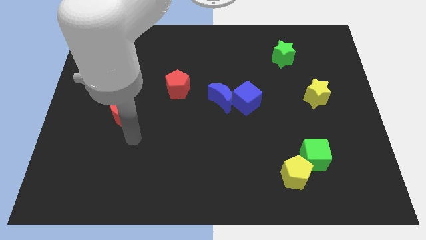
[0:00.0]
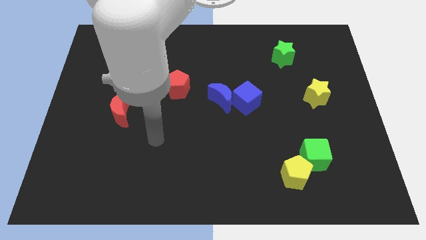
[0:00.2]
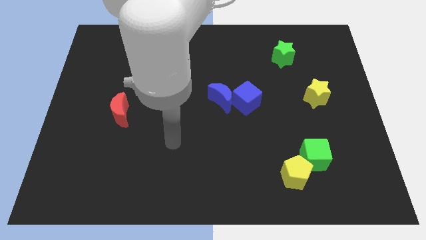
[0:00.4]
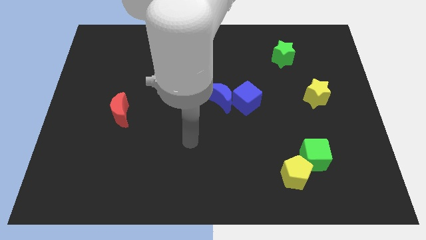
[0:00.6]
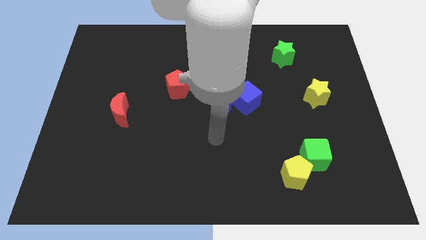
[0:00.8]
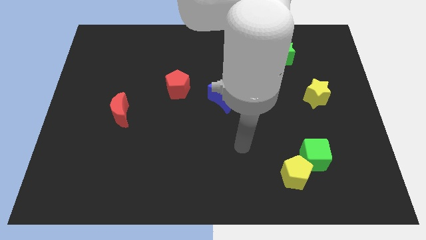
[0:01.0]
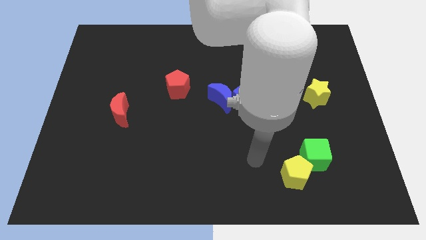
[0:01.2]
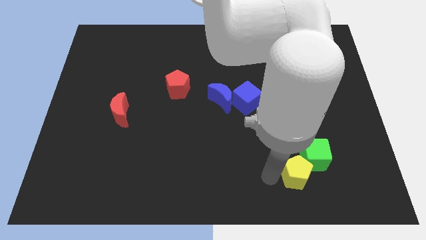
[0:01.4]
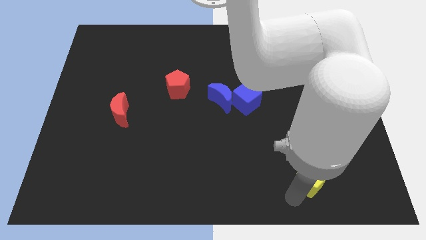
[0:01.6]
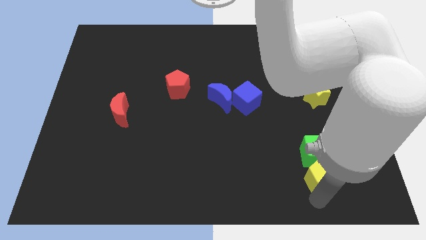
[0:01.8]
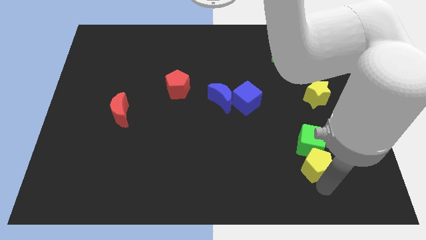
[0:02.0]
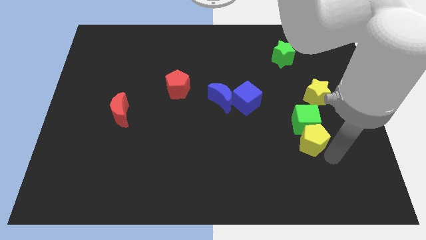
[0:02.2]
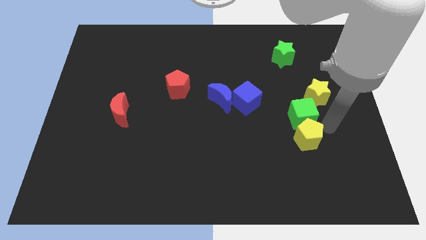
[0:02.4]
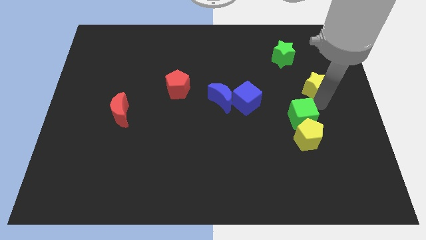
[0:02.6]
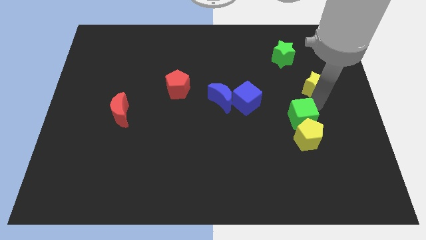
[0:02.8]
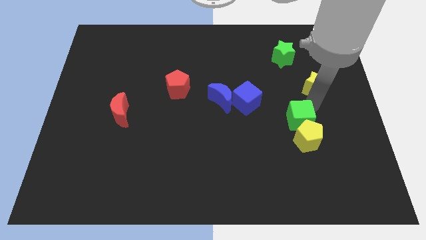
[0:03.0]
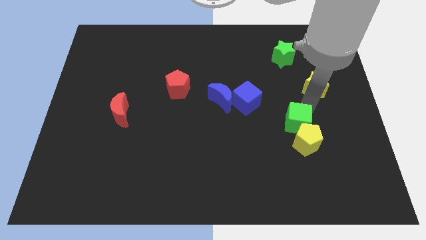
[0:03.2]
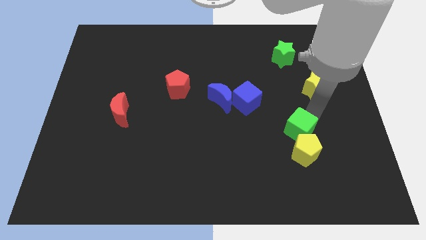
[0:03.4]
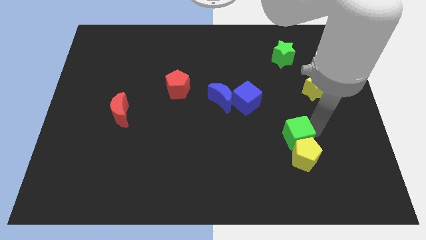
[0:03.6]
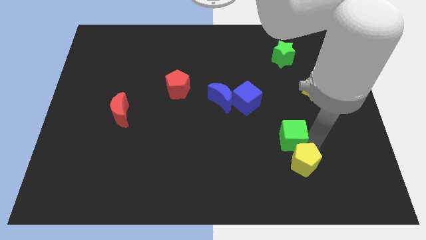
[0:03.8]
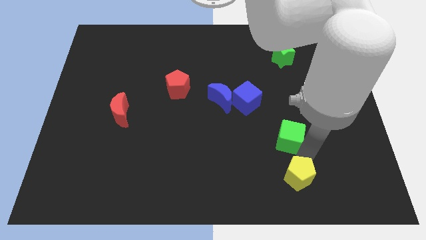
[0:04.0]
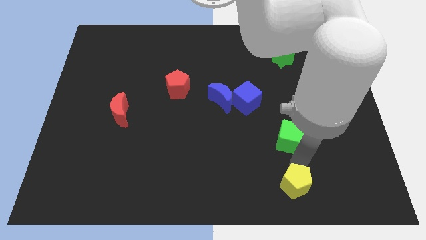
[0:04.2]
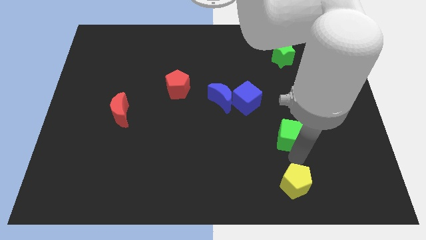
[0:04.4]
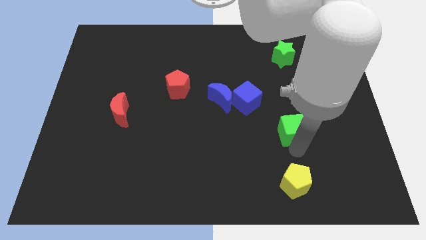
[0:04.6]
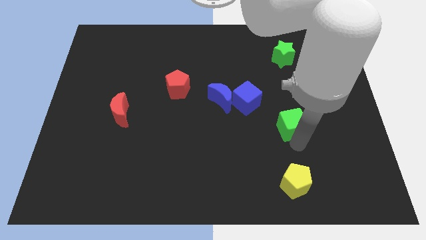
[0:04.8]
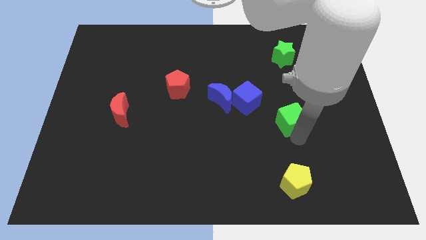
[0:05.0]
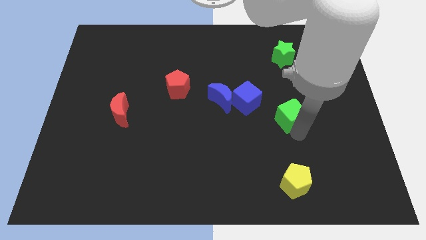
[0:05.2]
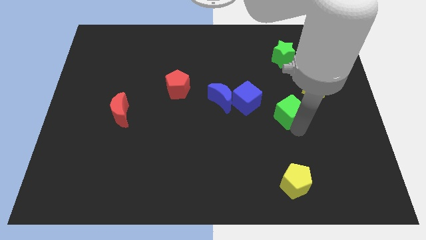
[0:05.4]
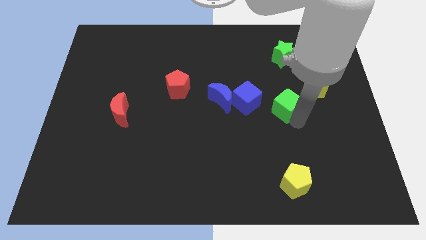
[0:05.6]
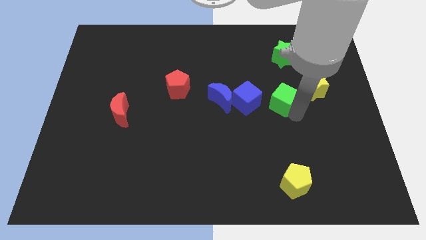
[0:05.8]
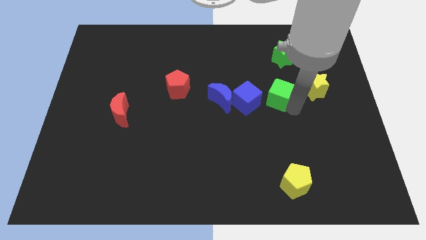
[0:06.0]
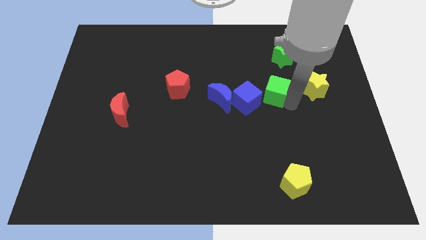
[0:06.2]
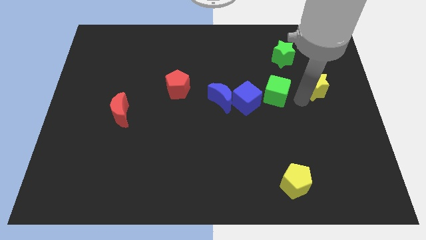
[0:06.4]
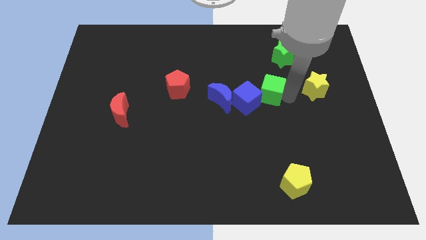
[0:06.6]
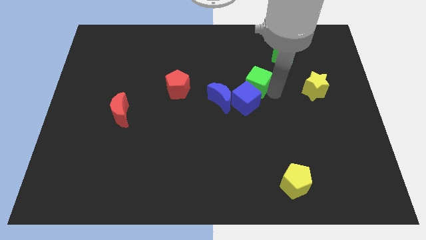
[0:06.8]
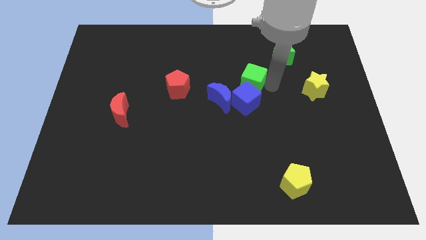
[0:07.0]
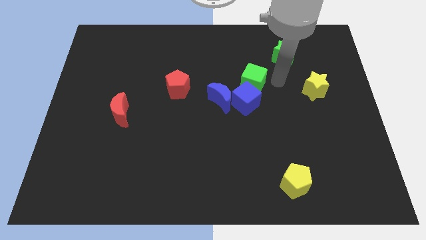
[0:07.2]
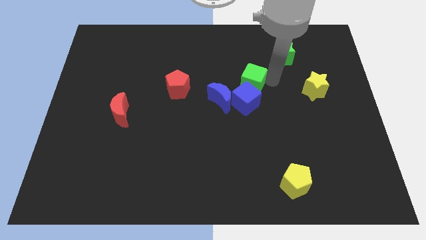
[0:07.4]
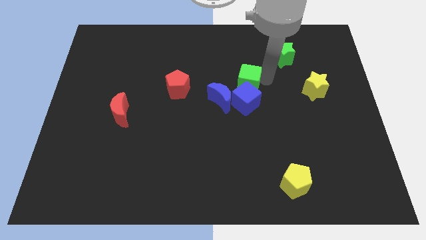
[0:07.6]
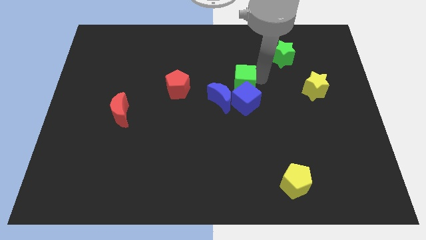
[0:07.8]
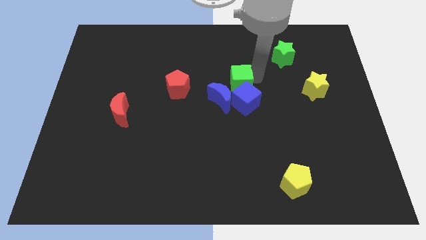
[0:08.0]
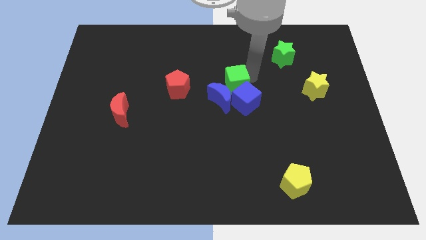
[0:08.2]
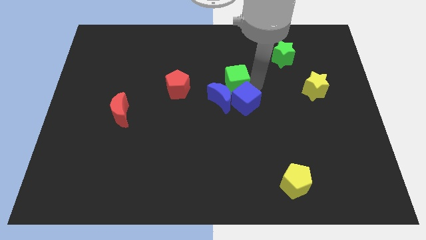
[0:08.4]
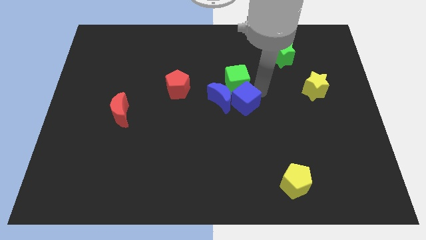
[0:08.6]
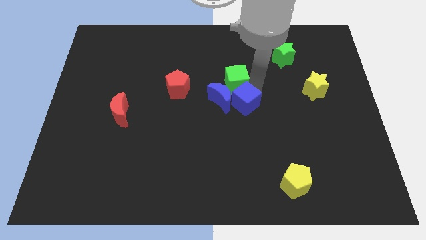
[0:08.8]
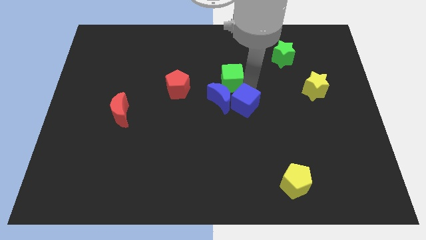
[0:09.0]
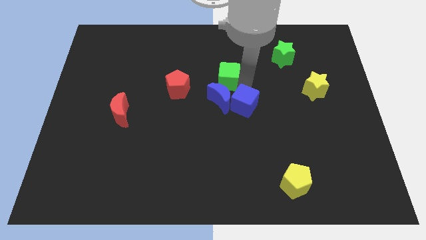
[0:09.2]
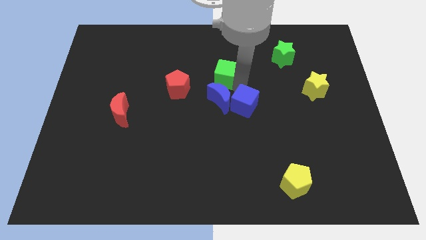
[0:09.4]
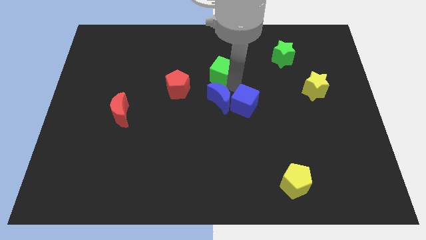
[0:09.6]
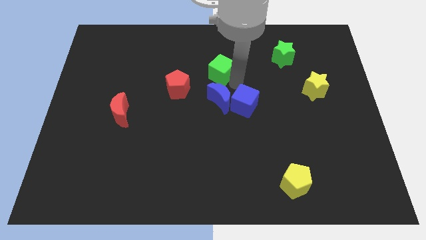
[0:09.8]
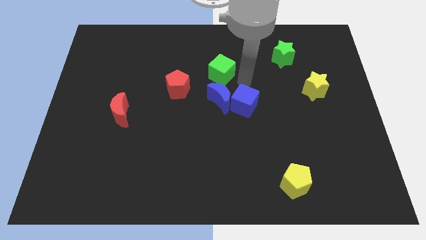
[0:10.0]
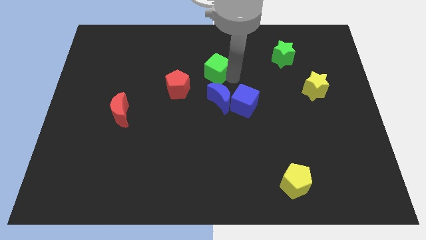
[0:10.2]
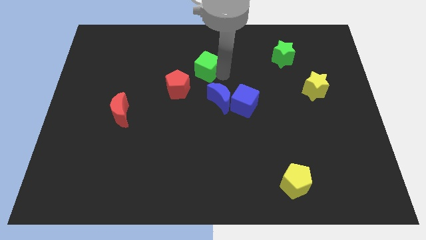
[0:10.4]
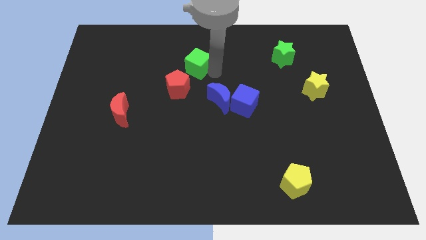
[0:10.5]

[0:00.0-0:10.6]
put the green cube above the red pentagon

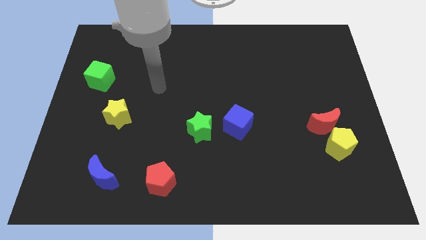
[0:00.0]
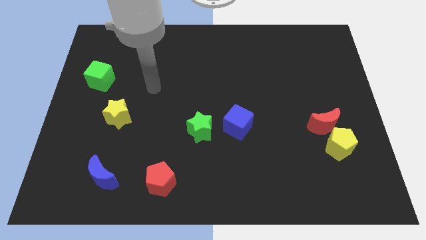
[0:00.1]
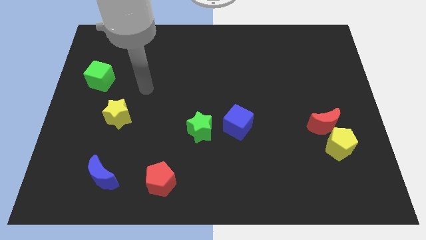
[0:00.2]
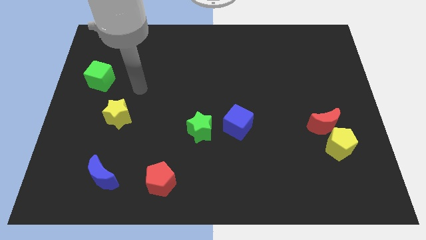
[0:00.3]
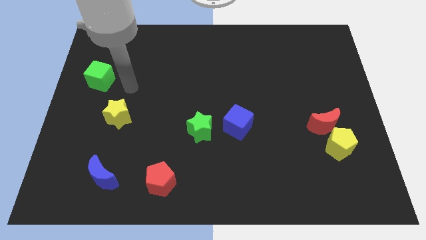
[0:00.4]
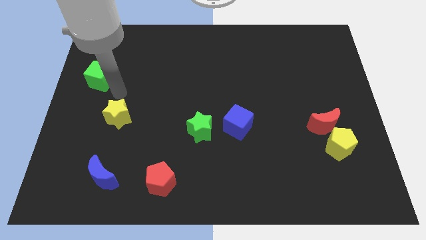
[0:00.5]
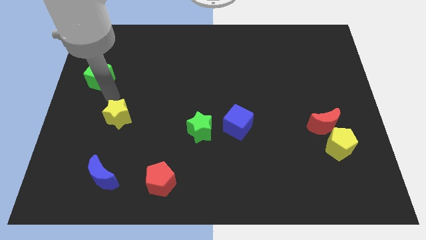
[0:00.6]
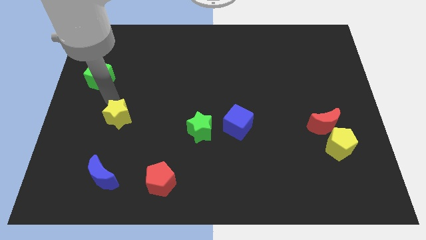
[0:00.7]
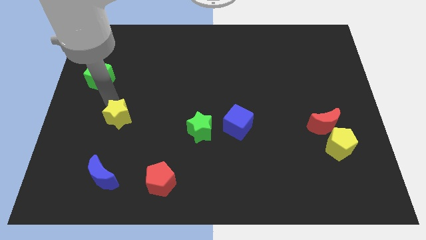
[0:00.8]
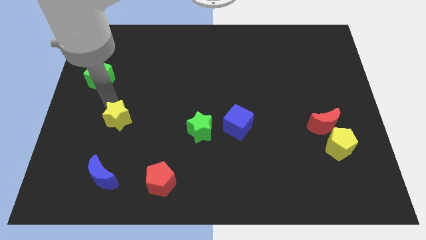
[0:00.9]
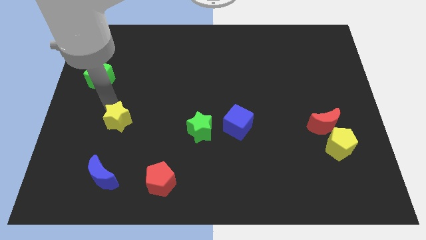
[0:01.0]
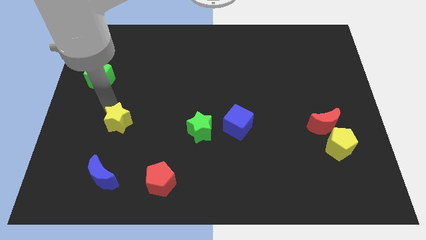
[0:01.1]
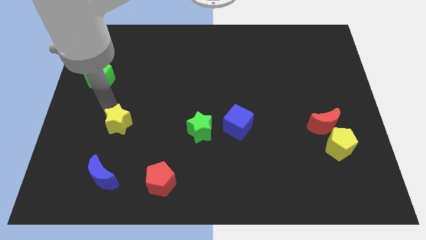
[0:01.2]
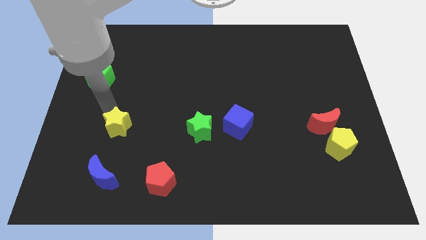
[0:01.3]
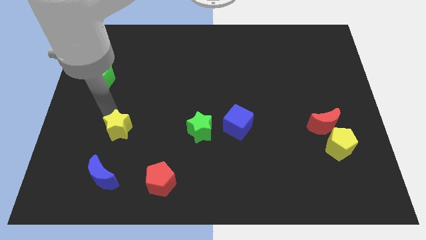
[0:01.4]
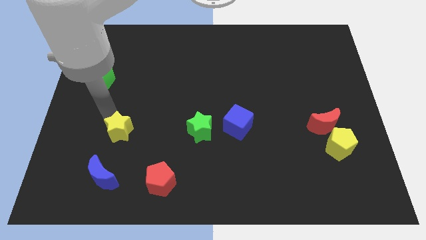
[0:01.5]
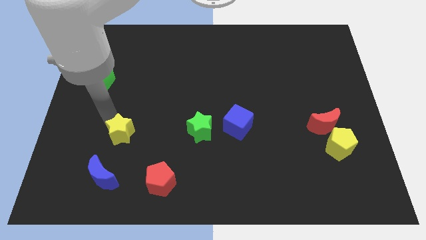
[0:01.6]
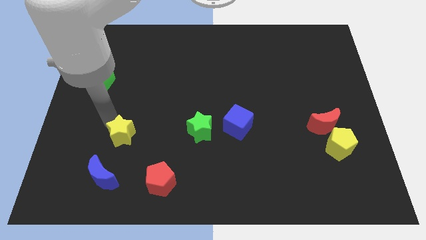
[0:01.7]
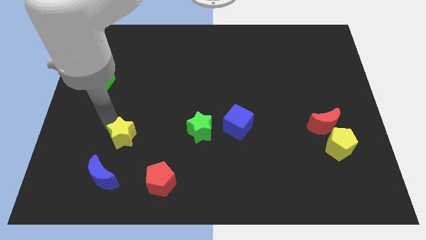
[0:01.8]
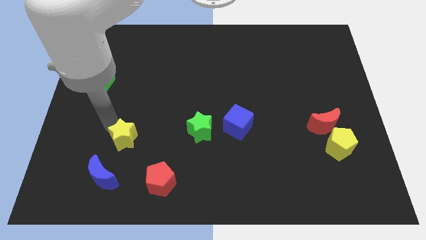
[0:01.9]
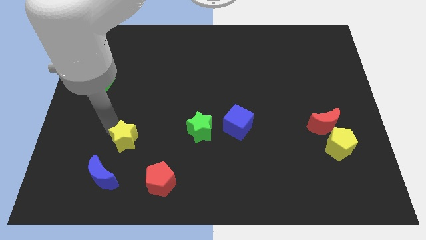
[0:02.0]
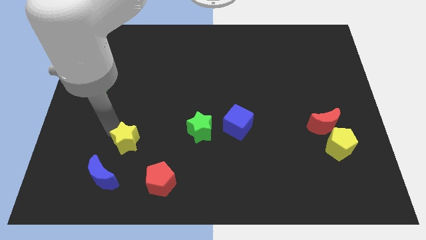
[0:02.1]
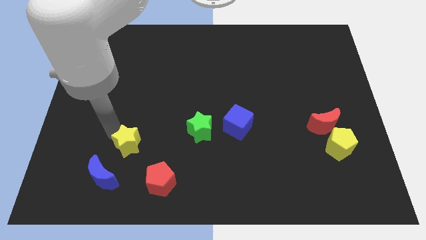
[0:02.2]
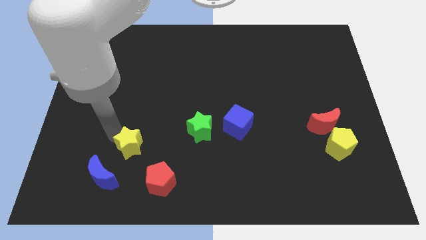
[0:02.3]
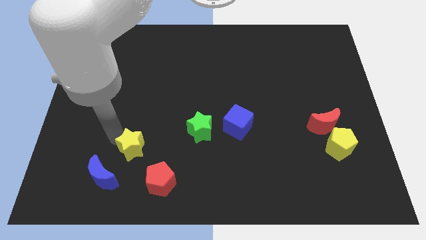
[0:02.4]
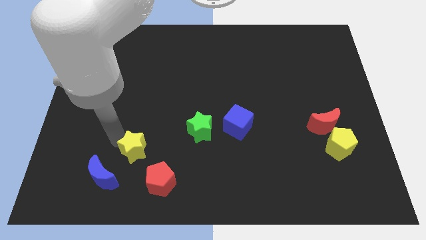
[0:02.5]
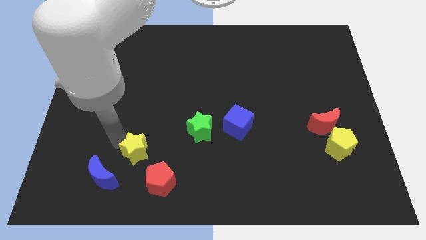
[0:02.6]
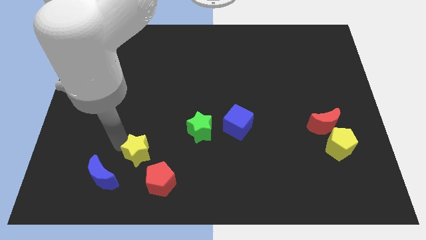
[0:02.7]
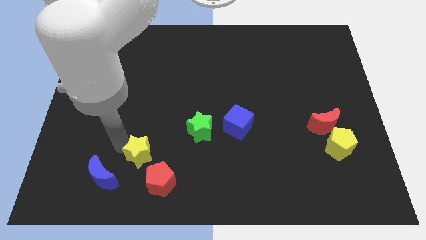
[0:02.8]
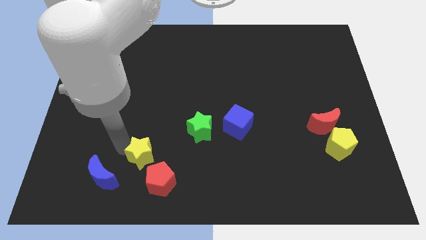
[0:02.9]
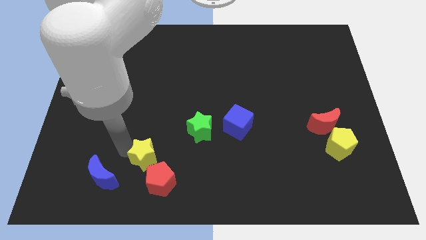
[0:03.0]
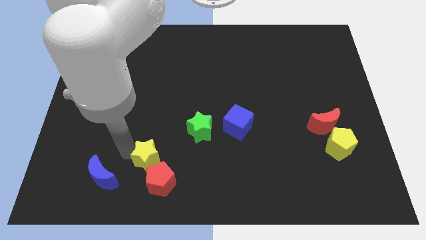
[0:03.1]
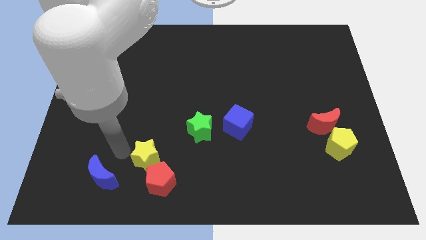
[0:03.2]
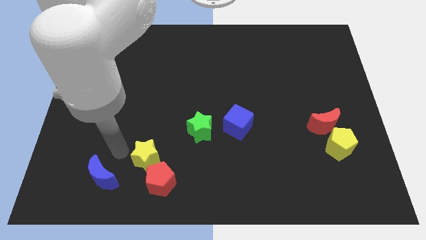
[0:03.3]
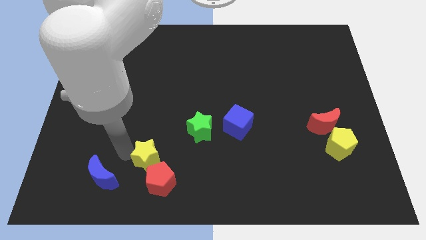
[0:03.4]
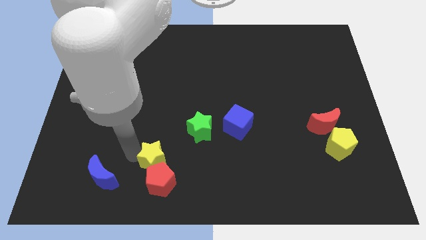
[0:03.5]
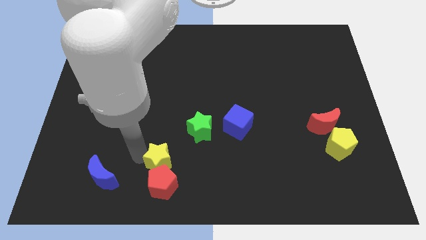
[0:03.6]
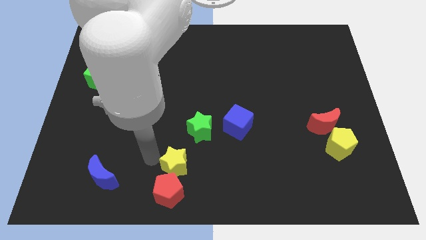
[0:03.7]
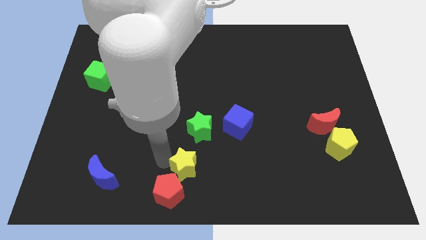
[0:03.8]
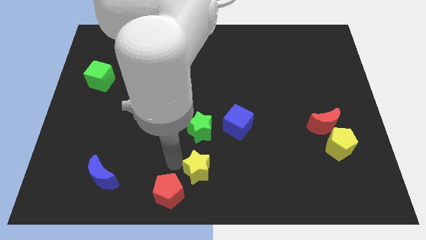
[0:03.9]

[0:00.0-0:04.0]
move the yellow star right of the red pentagon
